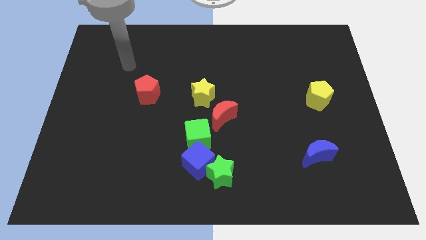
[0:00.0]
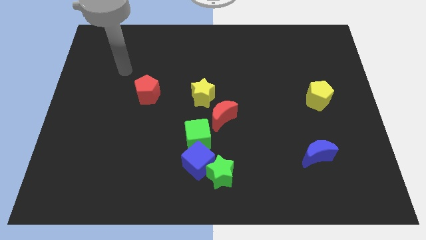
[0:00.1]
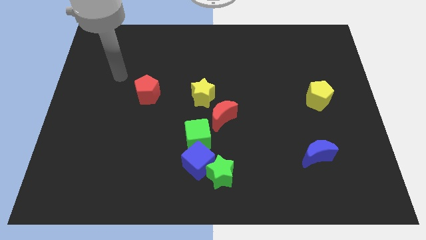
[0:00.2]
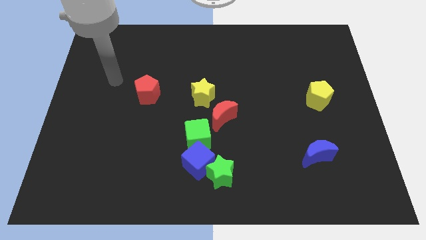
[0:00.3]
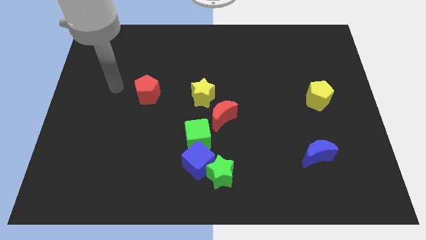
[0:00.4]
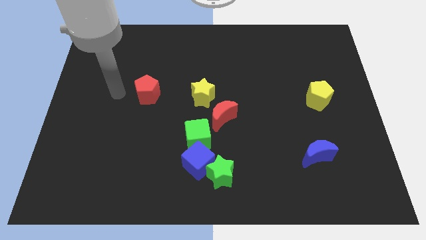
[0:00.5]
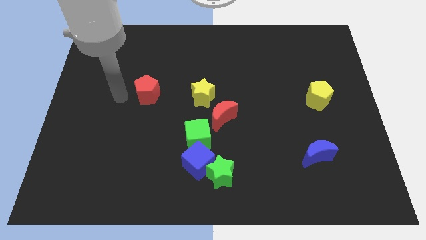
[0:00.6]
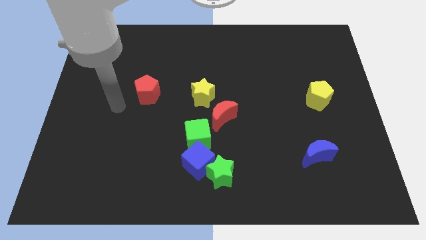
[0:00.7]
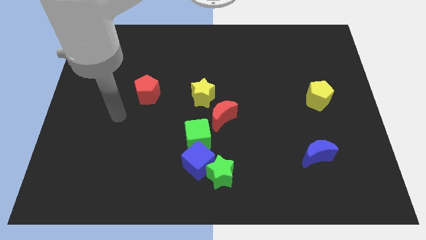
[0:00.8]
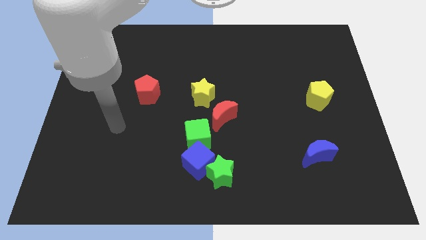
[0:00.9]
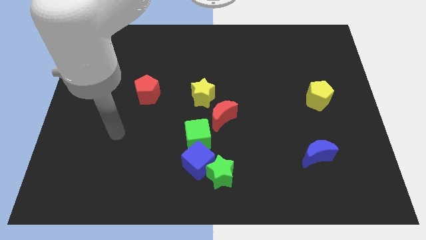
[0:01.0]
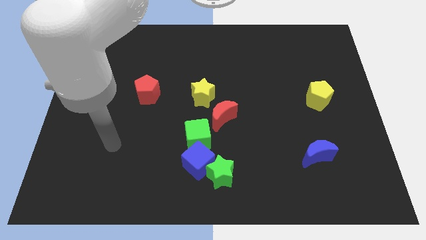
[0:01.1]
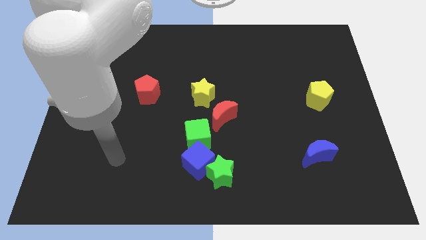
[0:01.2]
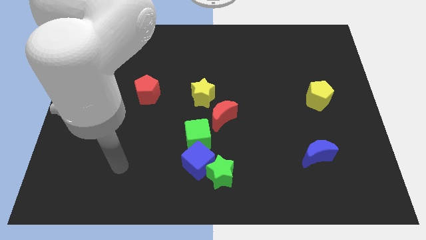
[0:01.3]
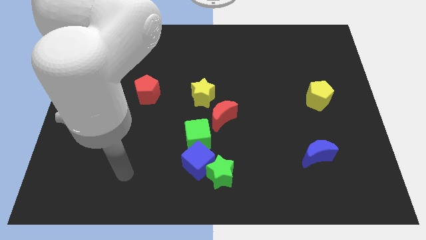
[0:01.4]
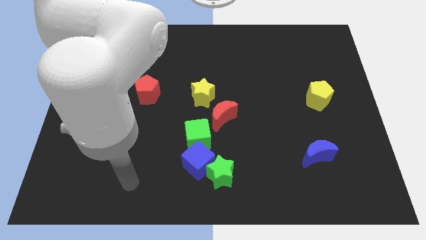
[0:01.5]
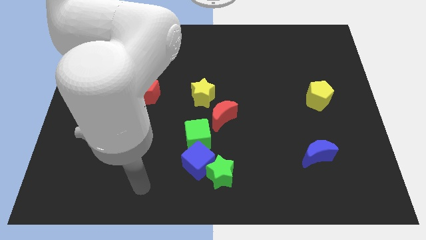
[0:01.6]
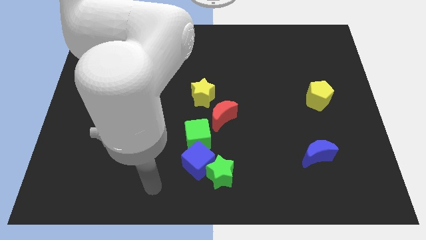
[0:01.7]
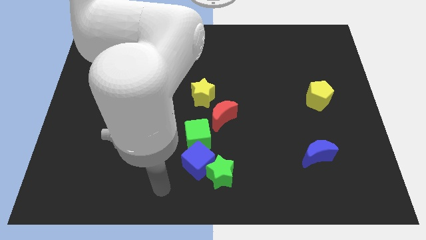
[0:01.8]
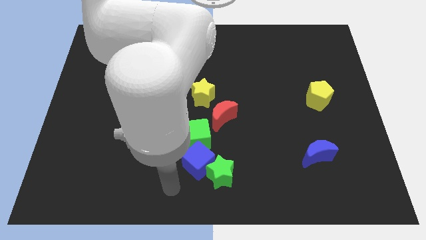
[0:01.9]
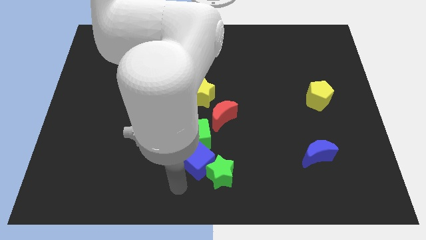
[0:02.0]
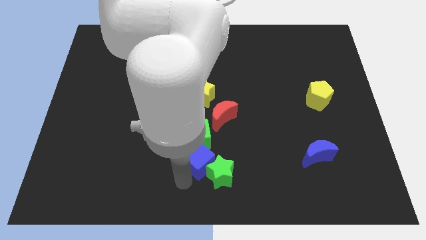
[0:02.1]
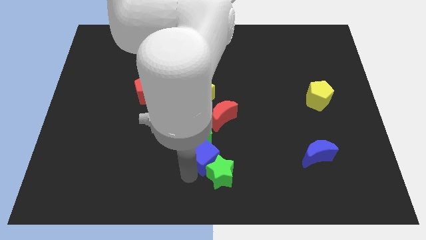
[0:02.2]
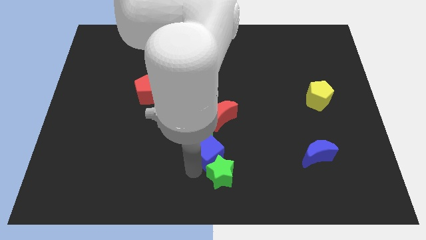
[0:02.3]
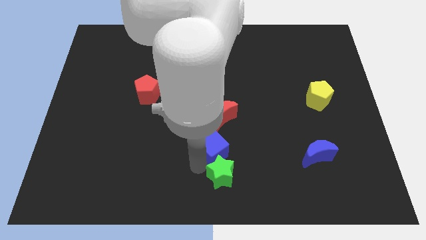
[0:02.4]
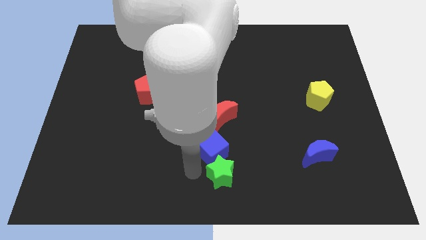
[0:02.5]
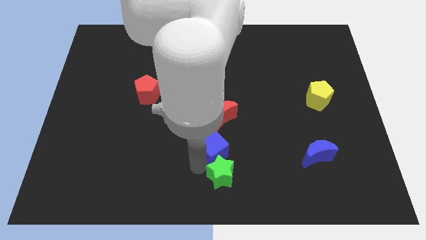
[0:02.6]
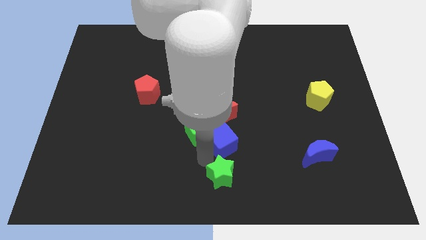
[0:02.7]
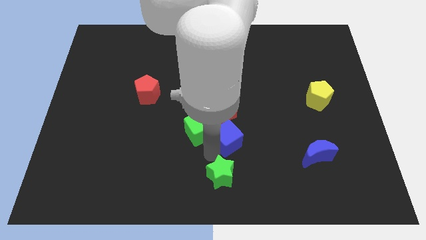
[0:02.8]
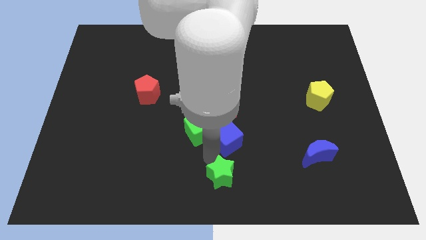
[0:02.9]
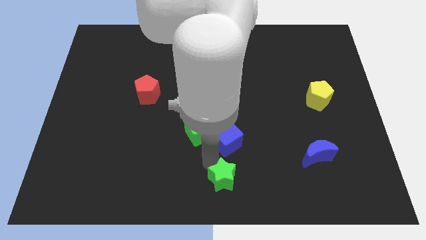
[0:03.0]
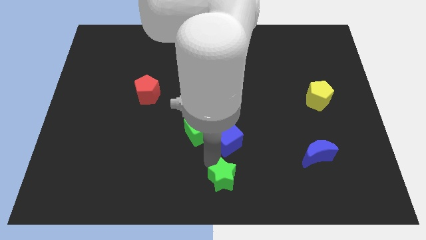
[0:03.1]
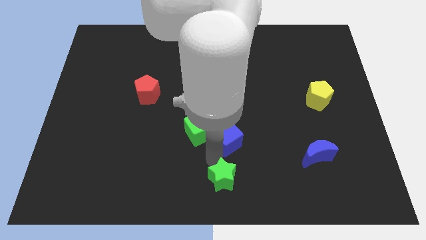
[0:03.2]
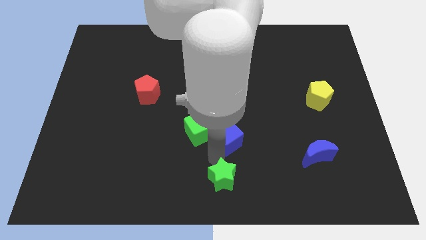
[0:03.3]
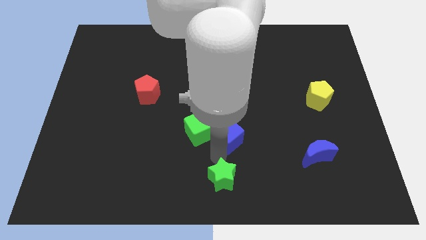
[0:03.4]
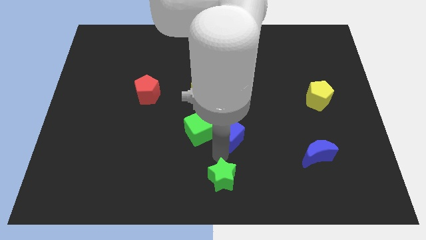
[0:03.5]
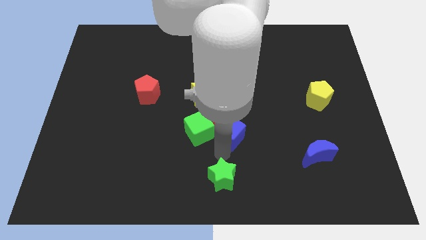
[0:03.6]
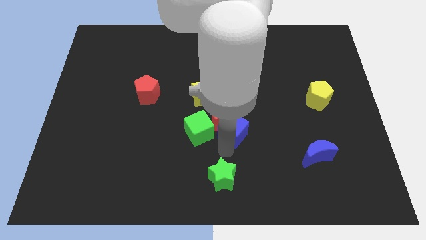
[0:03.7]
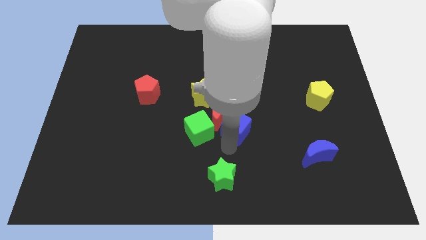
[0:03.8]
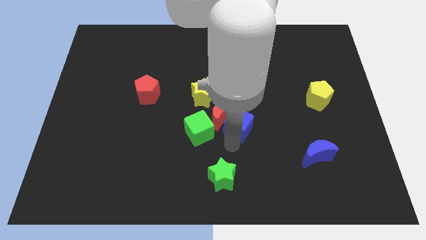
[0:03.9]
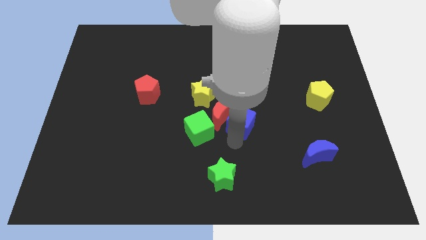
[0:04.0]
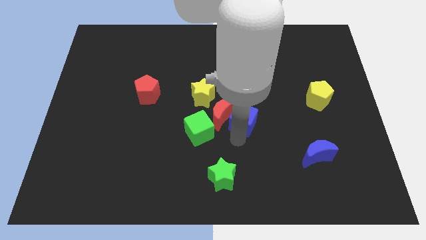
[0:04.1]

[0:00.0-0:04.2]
move the blue cube to the top right side of the red moon

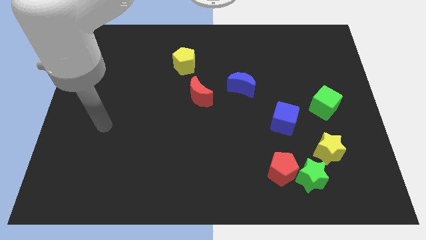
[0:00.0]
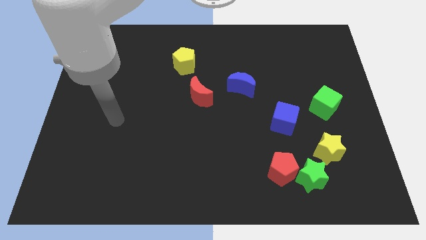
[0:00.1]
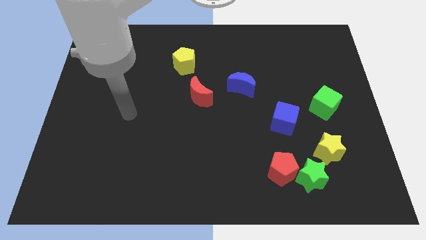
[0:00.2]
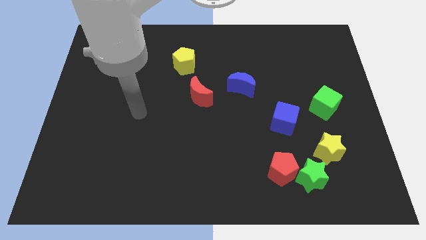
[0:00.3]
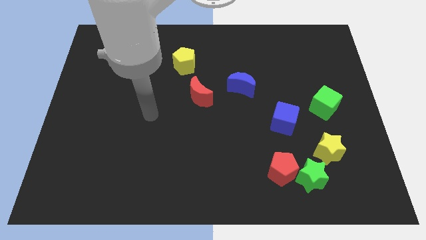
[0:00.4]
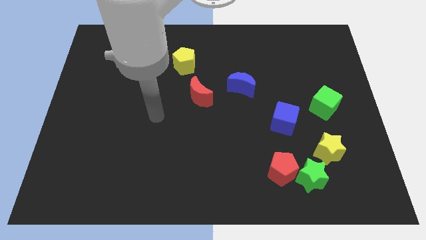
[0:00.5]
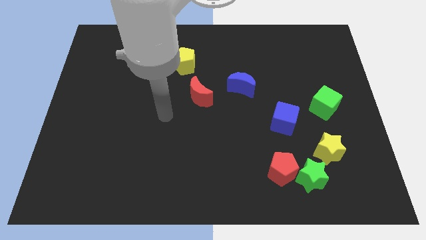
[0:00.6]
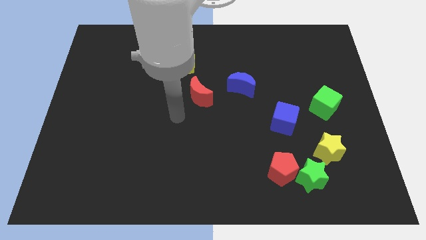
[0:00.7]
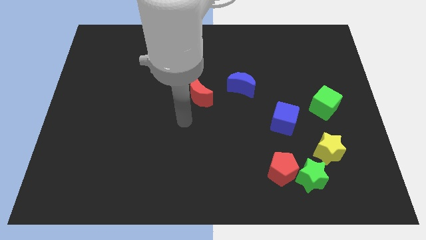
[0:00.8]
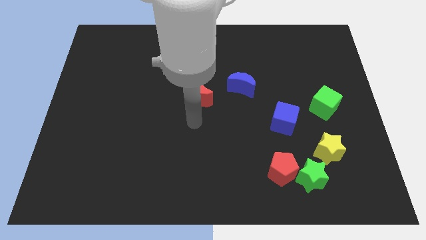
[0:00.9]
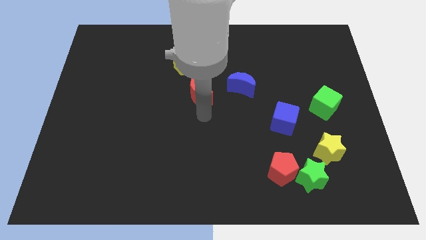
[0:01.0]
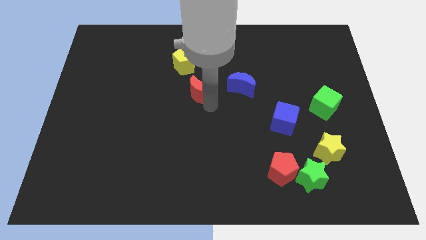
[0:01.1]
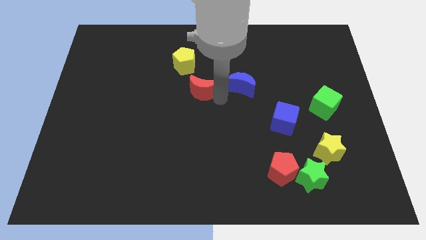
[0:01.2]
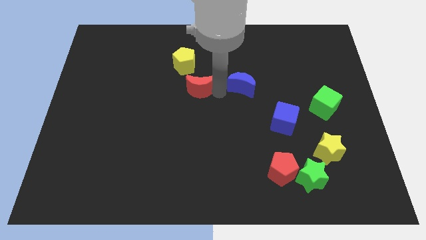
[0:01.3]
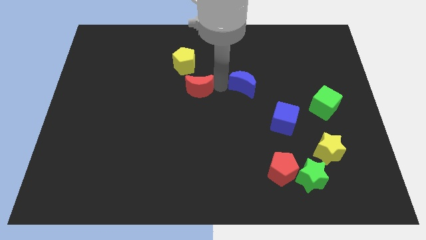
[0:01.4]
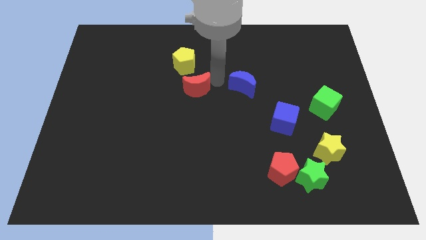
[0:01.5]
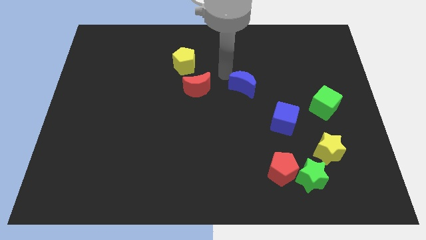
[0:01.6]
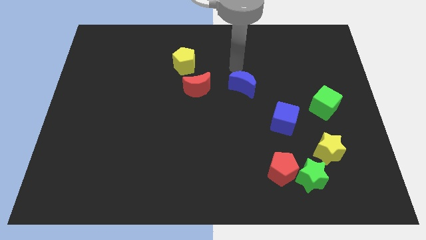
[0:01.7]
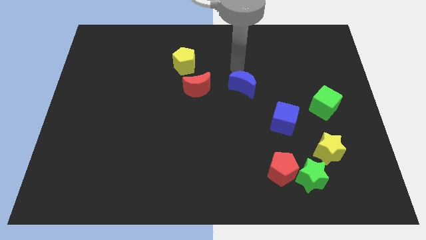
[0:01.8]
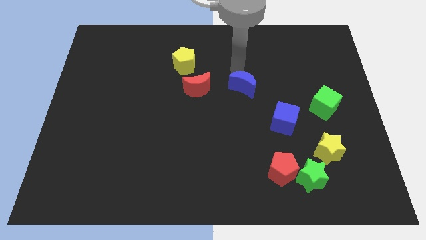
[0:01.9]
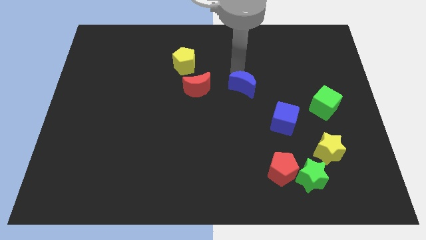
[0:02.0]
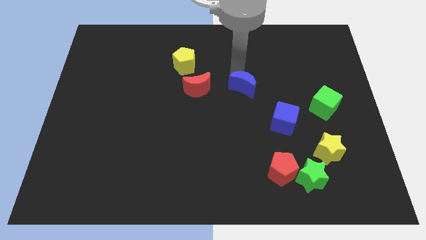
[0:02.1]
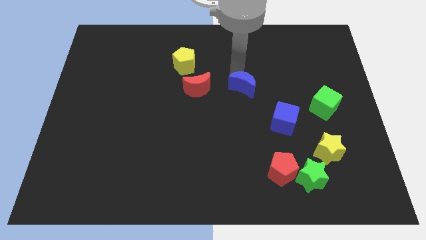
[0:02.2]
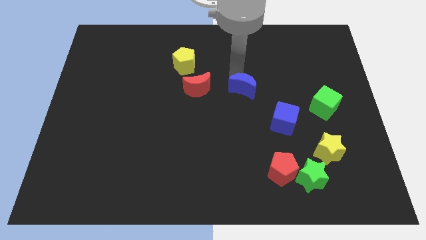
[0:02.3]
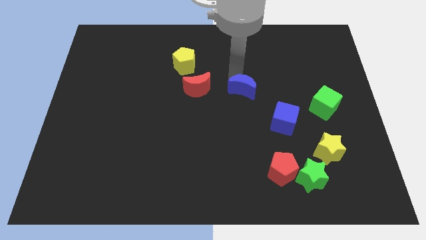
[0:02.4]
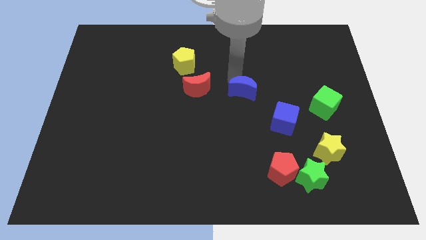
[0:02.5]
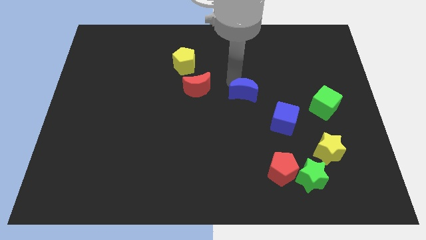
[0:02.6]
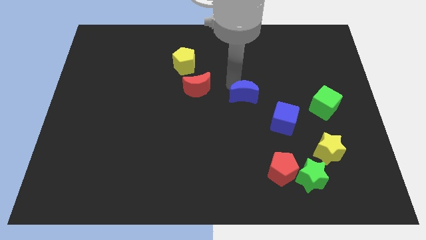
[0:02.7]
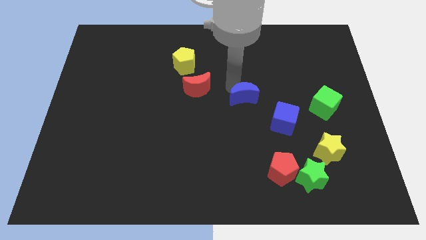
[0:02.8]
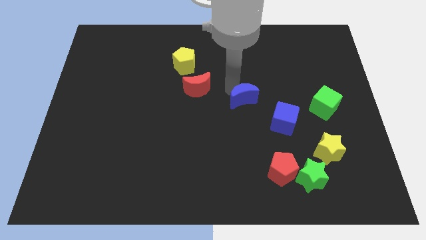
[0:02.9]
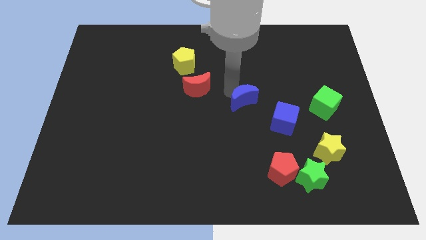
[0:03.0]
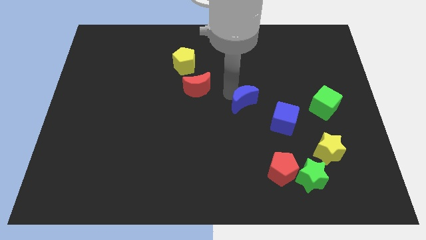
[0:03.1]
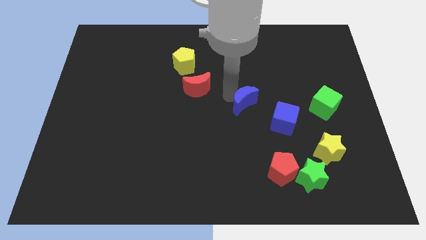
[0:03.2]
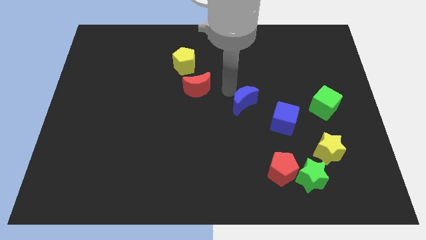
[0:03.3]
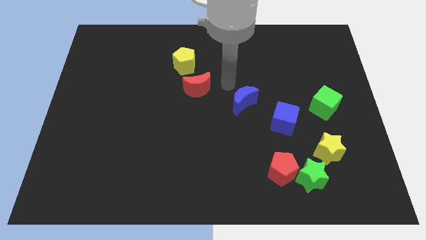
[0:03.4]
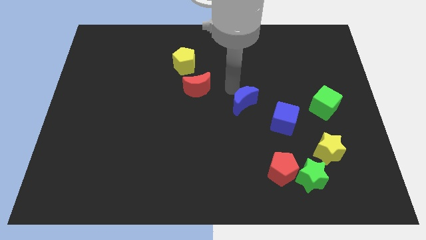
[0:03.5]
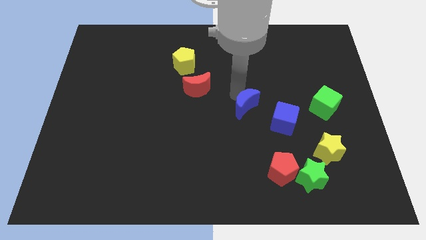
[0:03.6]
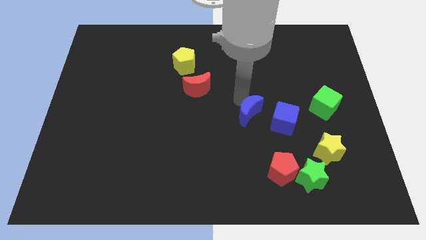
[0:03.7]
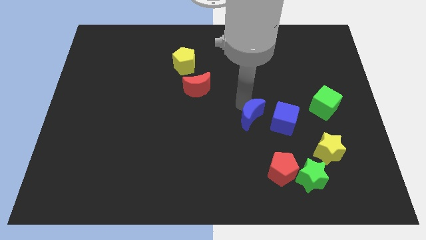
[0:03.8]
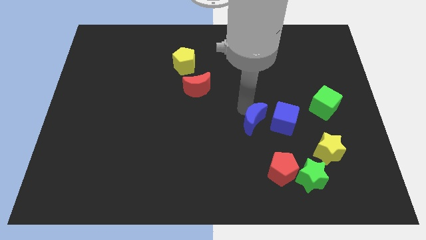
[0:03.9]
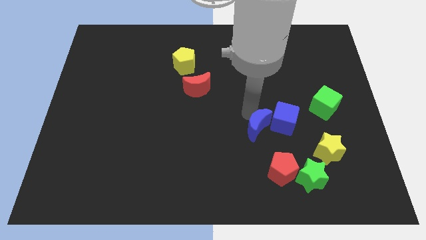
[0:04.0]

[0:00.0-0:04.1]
slide the blue moon diagonally down and to the left of the blue cube
